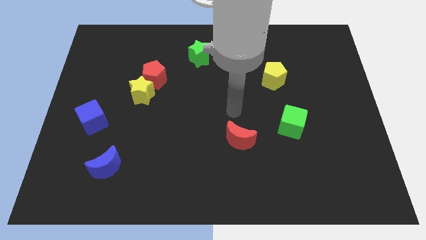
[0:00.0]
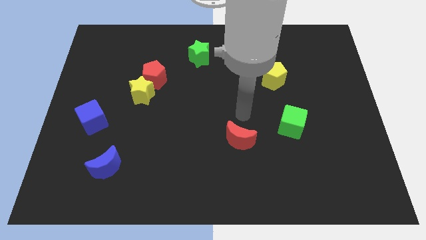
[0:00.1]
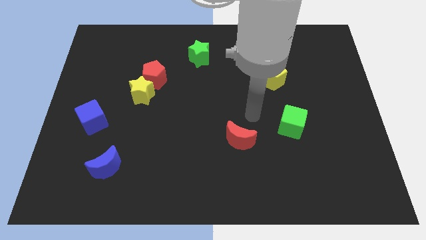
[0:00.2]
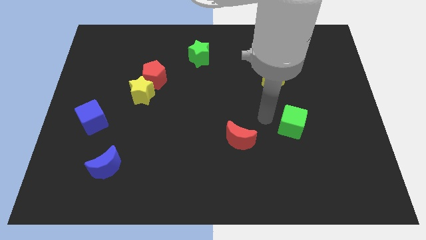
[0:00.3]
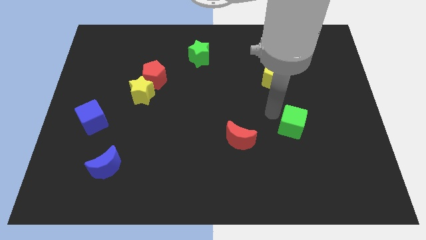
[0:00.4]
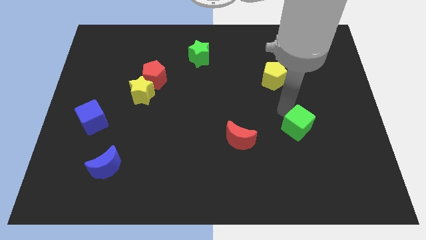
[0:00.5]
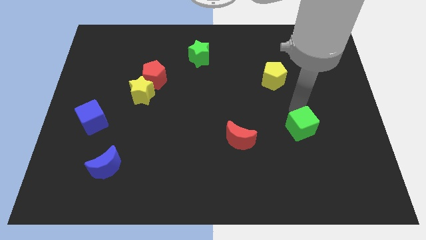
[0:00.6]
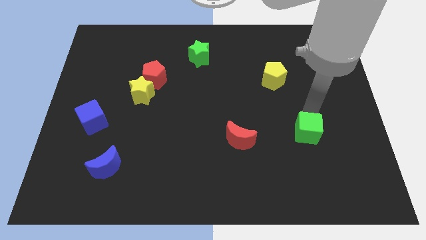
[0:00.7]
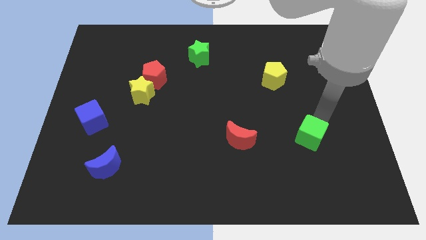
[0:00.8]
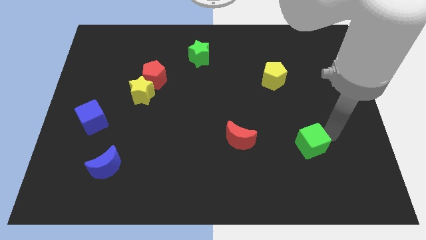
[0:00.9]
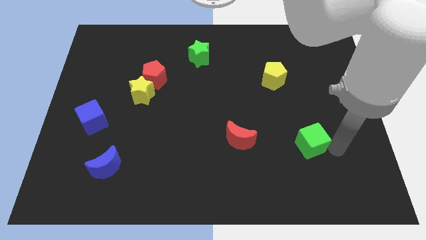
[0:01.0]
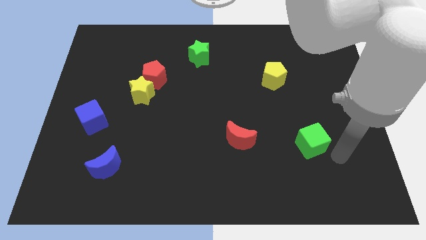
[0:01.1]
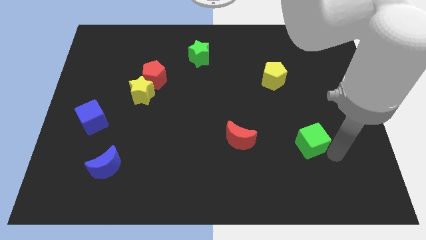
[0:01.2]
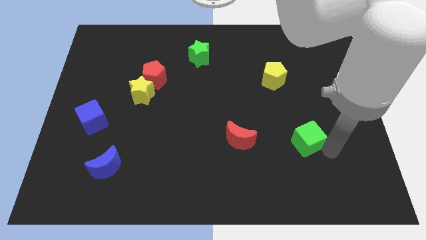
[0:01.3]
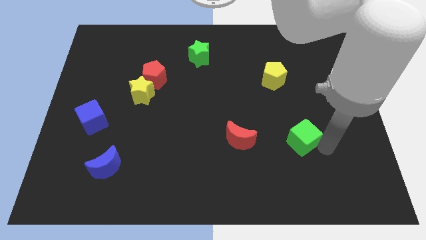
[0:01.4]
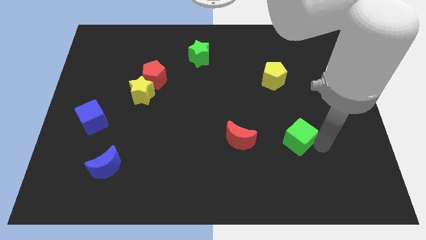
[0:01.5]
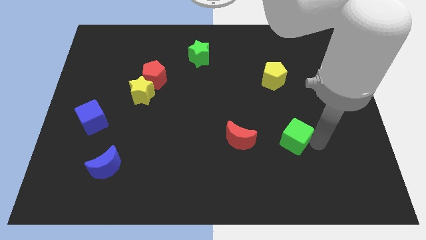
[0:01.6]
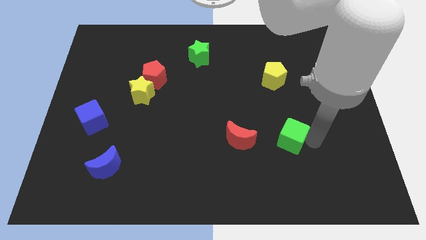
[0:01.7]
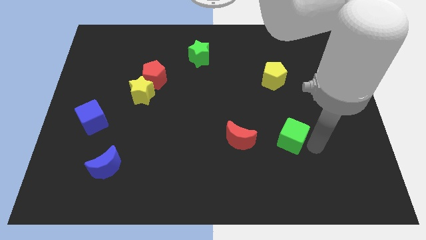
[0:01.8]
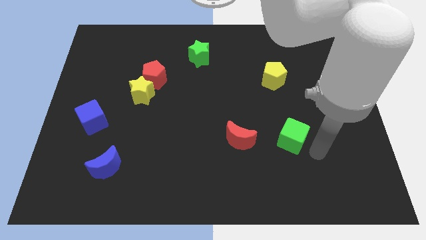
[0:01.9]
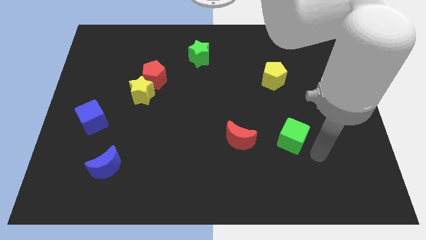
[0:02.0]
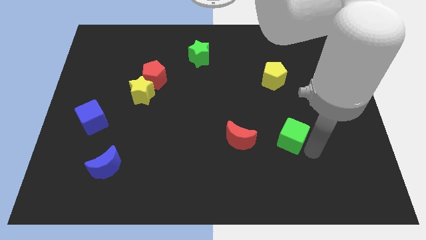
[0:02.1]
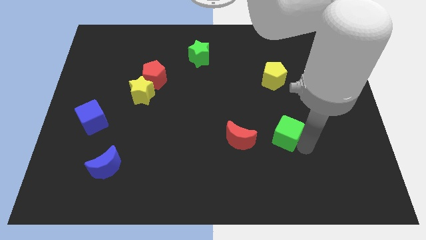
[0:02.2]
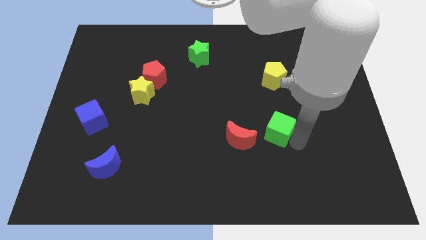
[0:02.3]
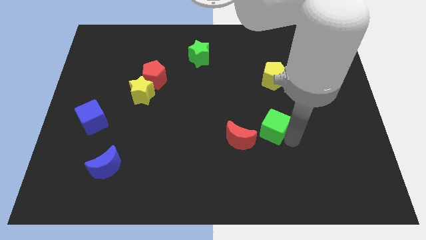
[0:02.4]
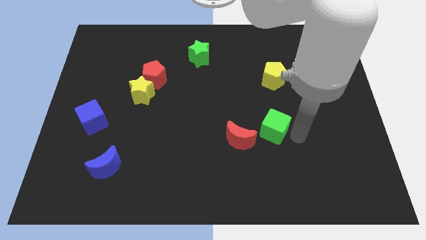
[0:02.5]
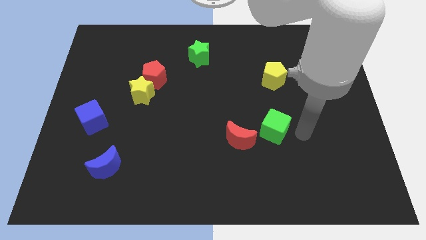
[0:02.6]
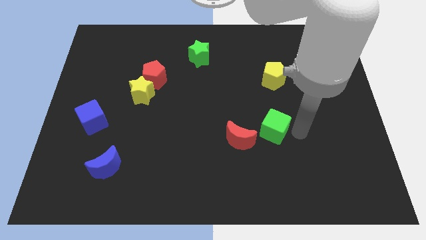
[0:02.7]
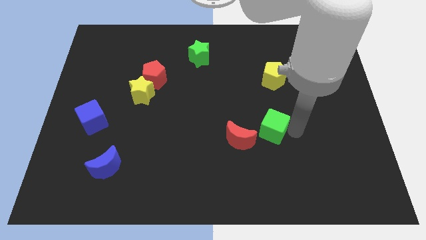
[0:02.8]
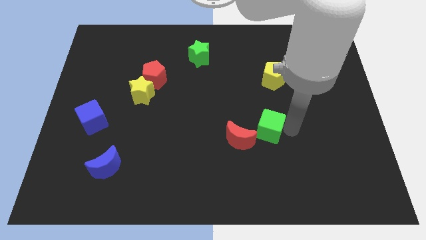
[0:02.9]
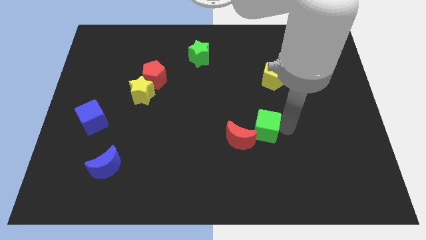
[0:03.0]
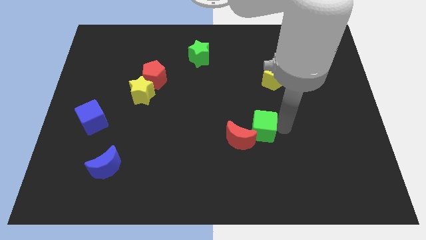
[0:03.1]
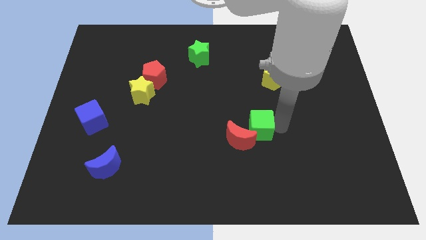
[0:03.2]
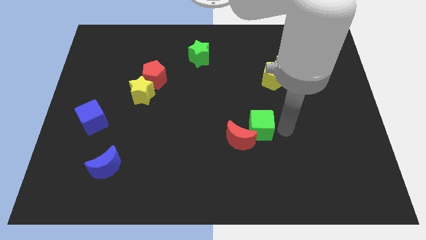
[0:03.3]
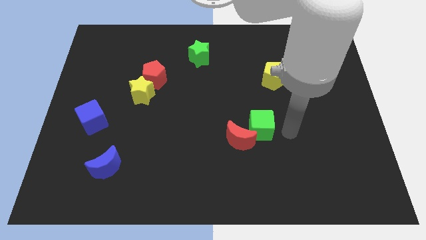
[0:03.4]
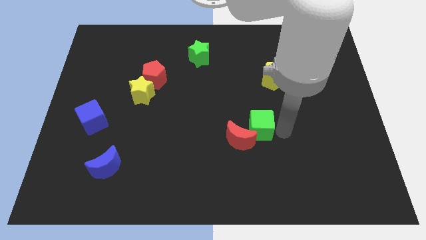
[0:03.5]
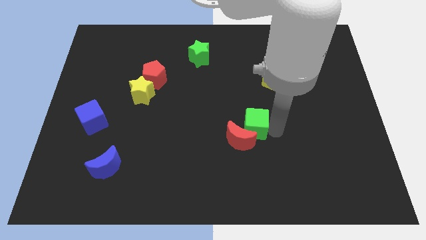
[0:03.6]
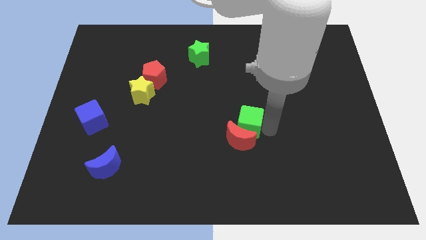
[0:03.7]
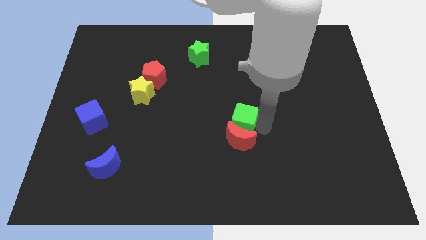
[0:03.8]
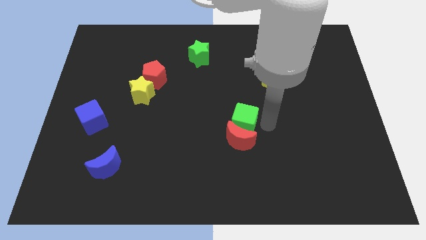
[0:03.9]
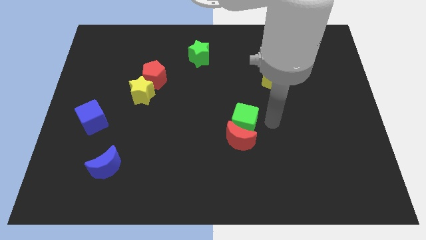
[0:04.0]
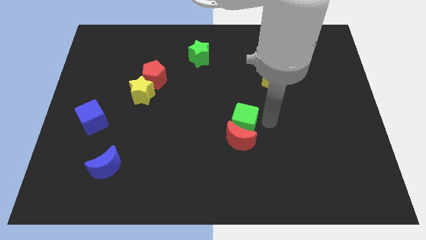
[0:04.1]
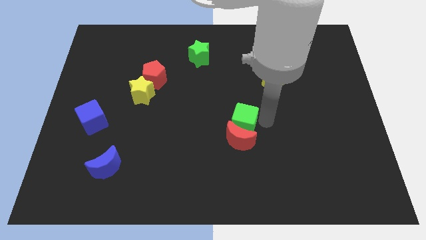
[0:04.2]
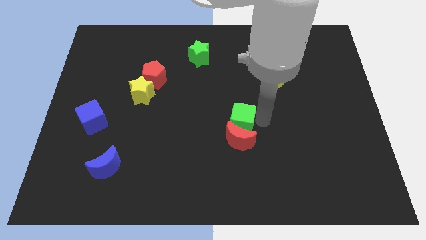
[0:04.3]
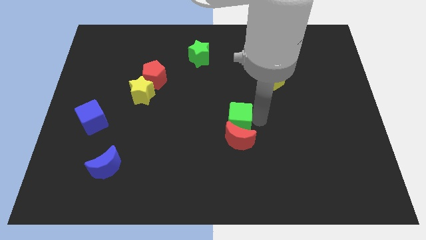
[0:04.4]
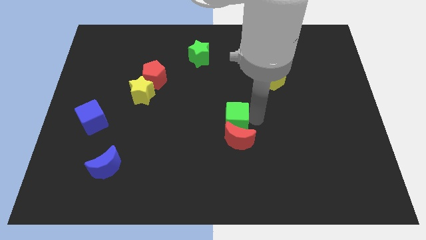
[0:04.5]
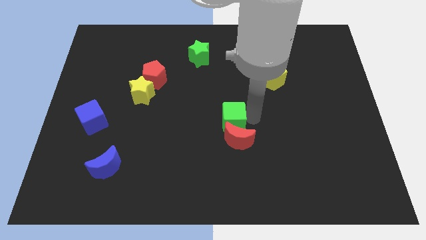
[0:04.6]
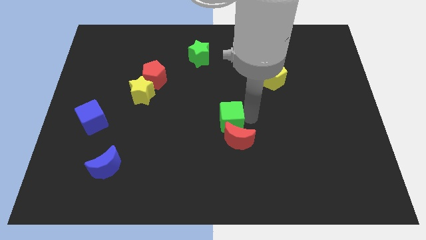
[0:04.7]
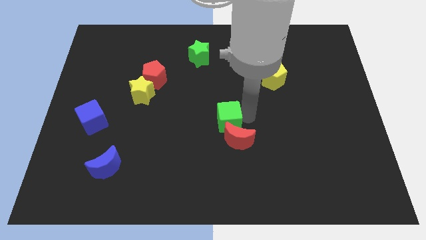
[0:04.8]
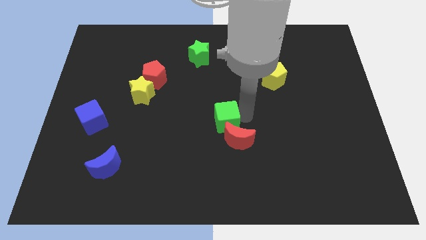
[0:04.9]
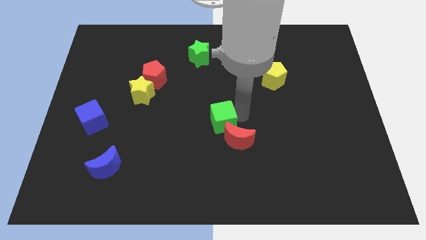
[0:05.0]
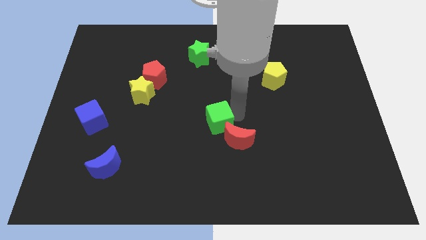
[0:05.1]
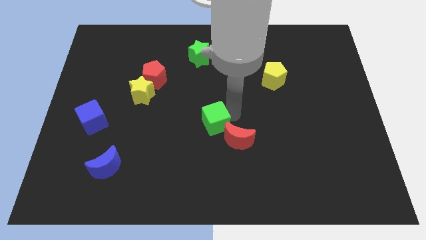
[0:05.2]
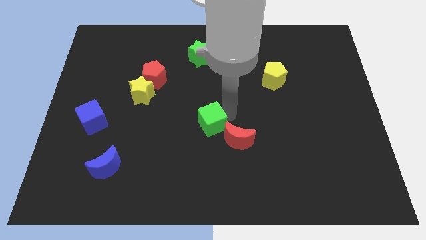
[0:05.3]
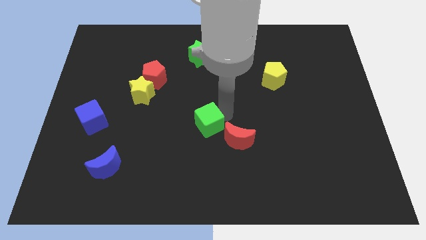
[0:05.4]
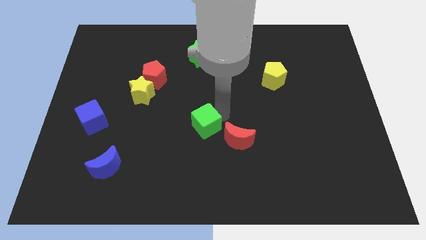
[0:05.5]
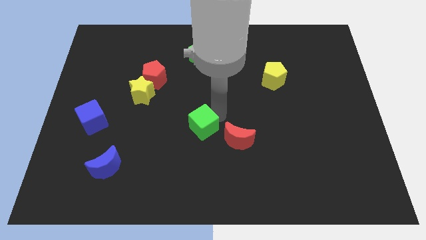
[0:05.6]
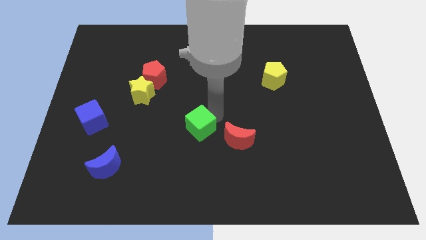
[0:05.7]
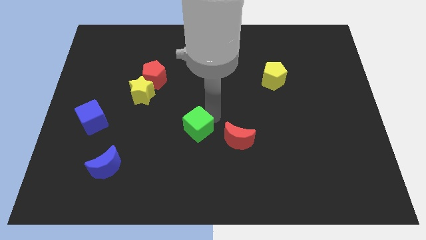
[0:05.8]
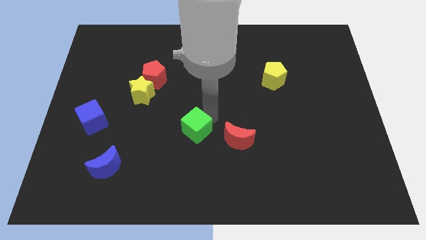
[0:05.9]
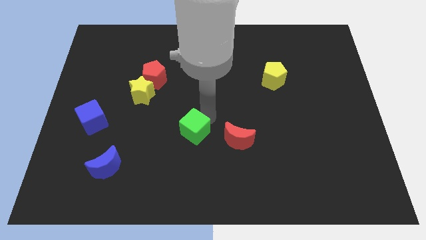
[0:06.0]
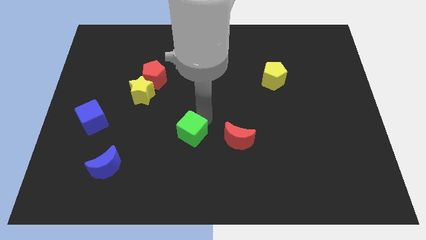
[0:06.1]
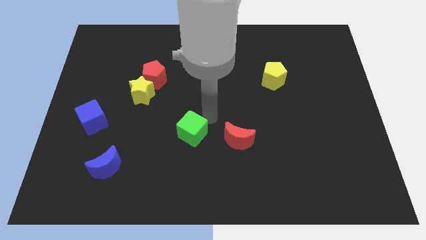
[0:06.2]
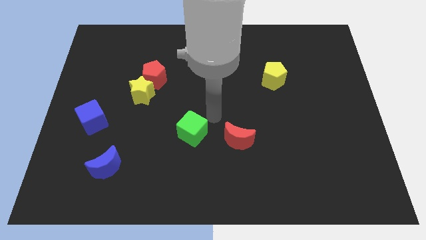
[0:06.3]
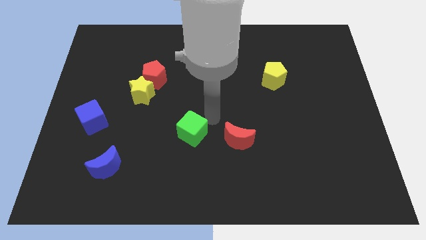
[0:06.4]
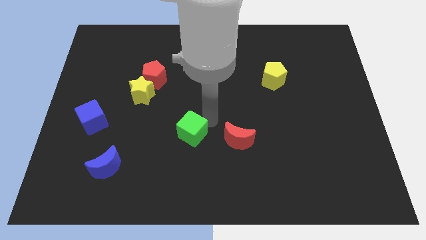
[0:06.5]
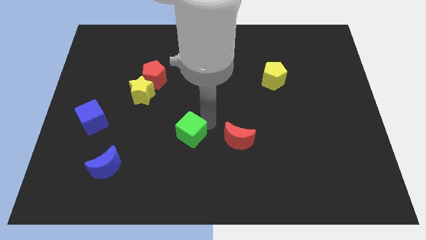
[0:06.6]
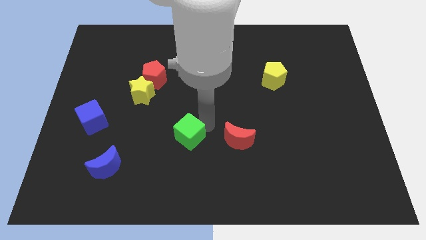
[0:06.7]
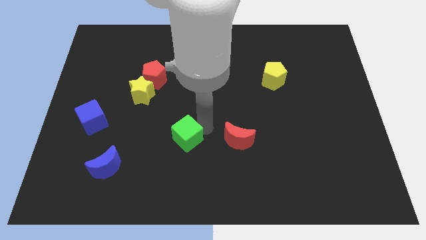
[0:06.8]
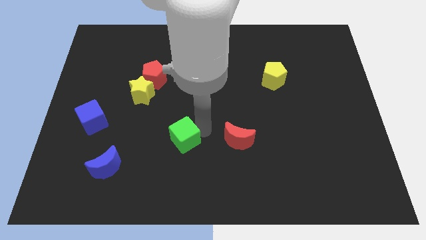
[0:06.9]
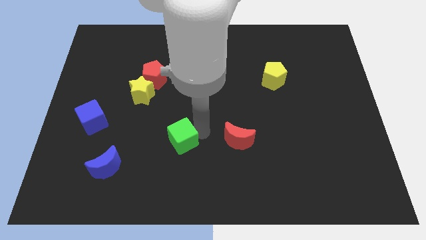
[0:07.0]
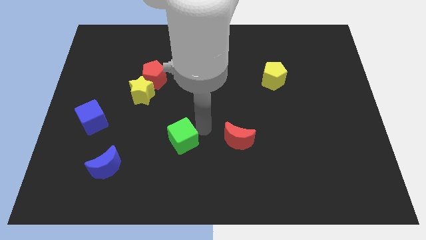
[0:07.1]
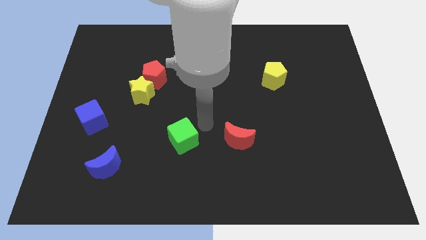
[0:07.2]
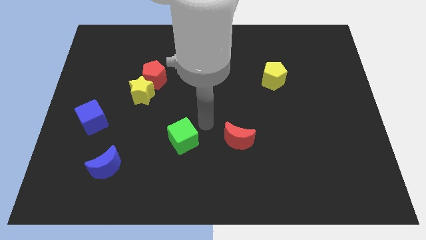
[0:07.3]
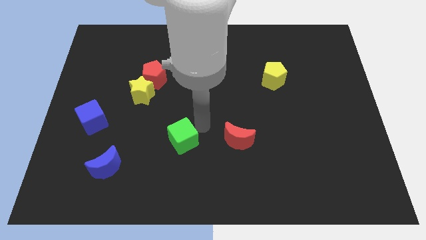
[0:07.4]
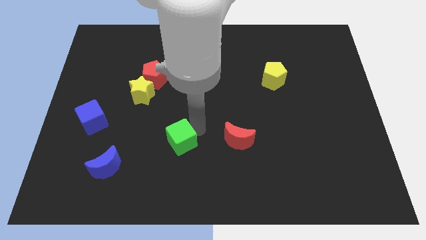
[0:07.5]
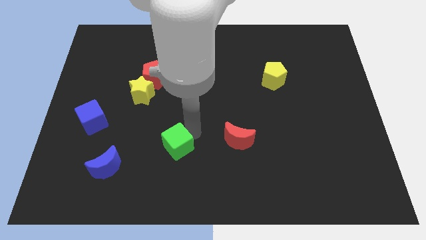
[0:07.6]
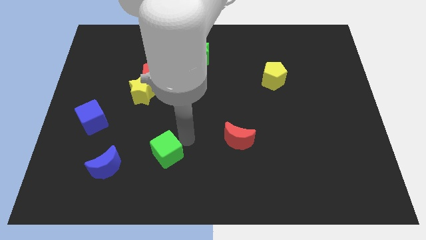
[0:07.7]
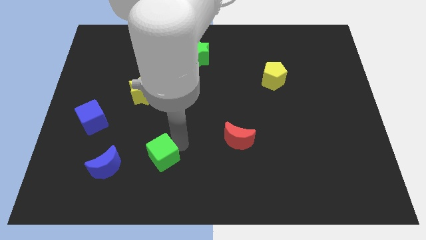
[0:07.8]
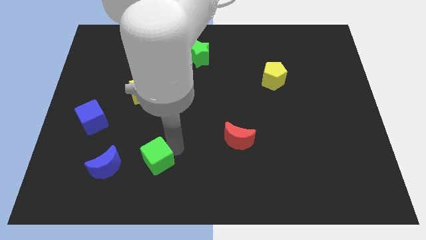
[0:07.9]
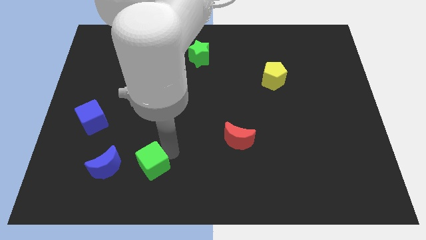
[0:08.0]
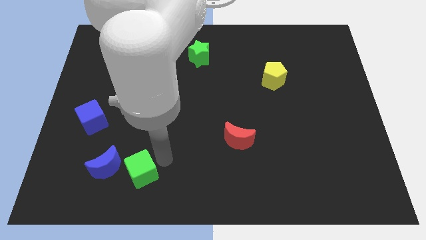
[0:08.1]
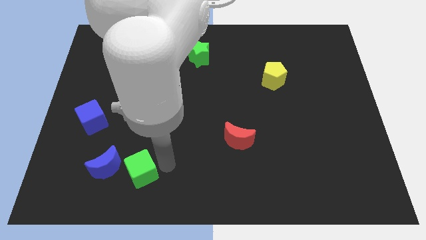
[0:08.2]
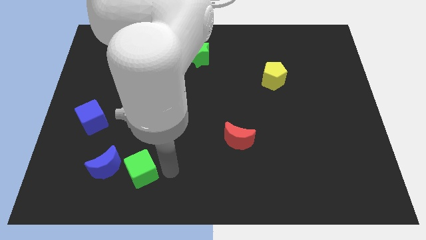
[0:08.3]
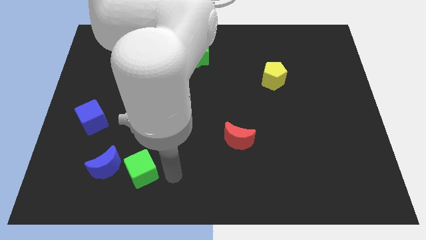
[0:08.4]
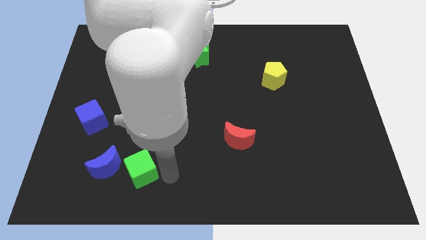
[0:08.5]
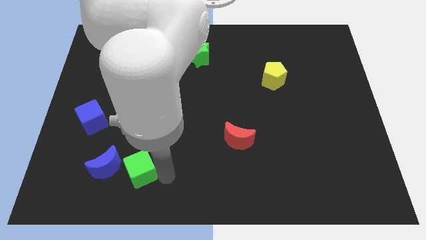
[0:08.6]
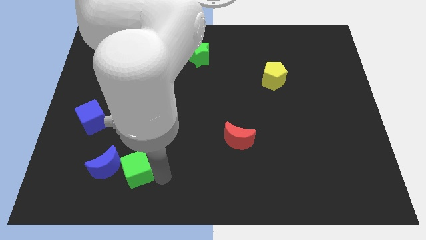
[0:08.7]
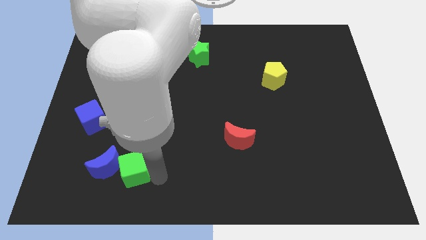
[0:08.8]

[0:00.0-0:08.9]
slide the green cube next to the blue moon
